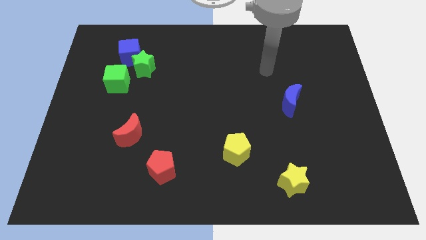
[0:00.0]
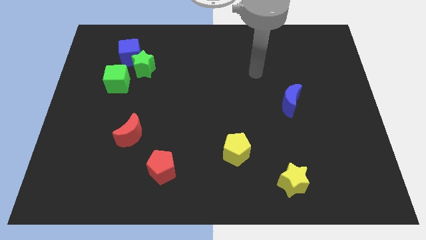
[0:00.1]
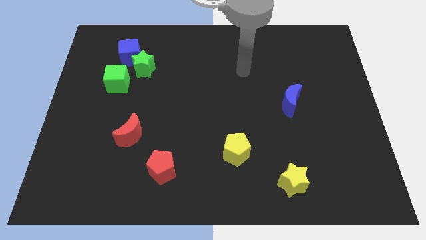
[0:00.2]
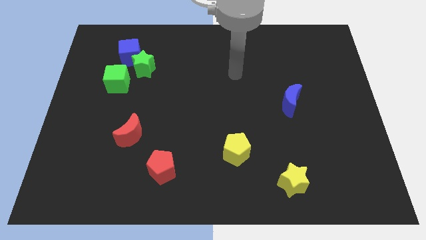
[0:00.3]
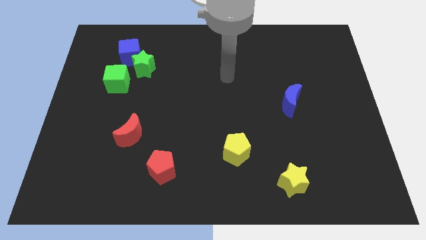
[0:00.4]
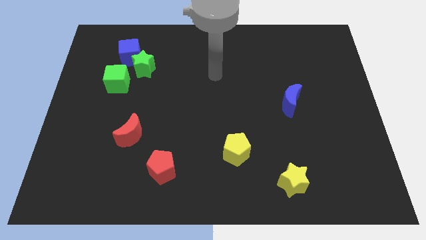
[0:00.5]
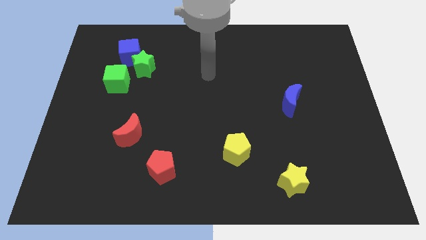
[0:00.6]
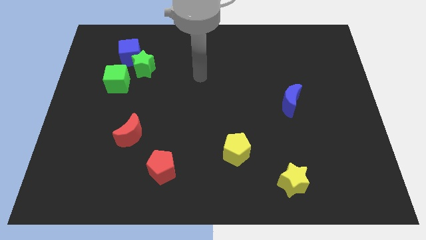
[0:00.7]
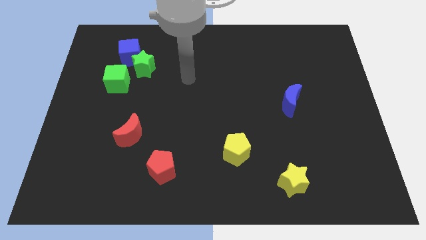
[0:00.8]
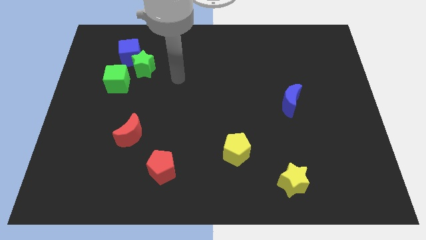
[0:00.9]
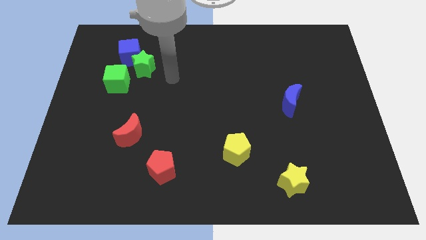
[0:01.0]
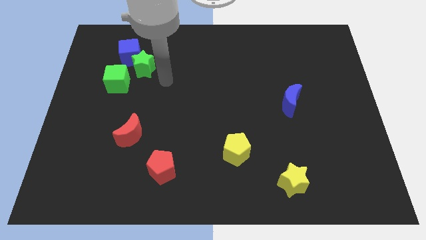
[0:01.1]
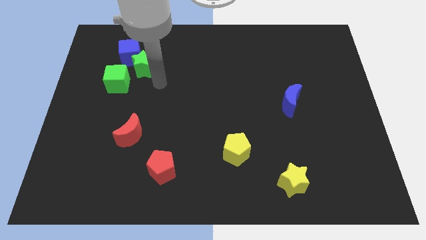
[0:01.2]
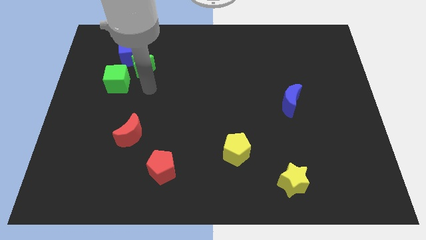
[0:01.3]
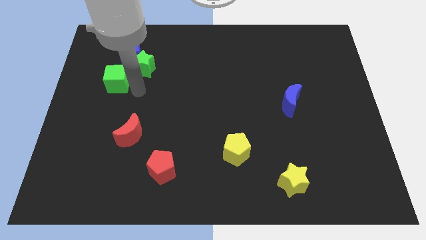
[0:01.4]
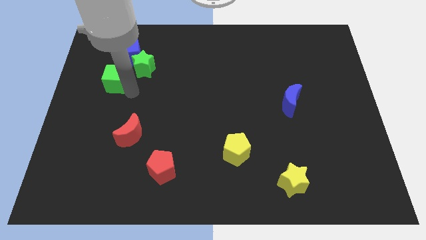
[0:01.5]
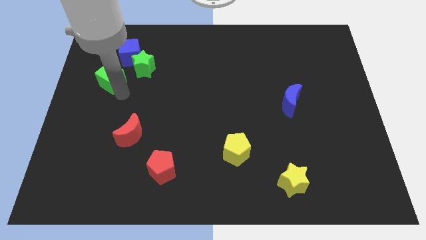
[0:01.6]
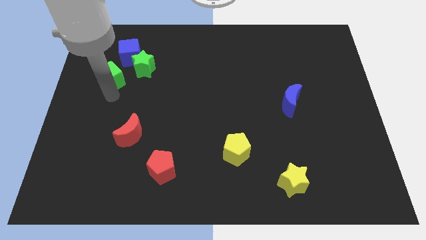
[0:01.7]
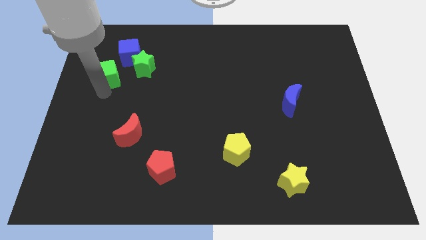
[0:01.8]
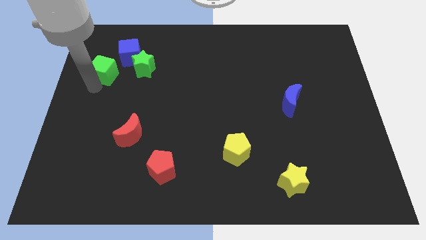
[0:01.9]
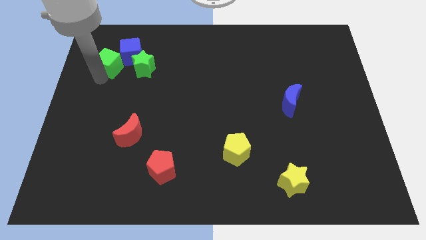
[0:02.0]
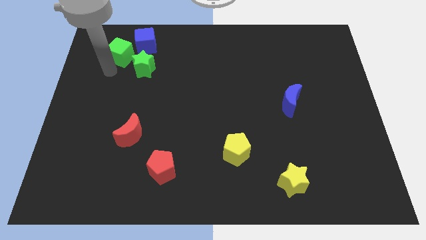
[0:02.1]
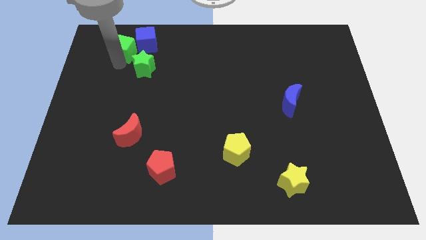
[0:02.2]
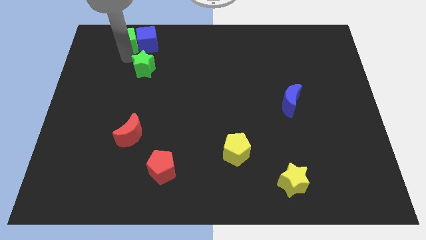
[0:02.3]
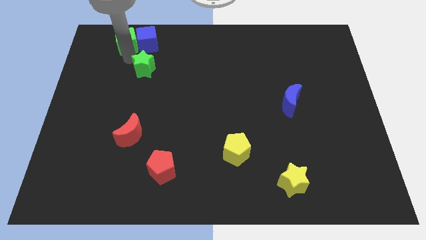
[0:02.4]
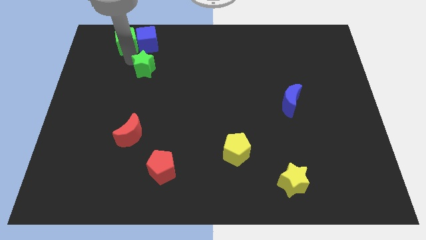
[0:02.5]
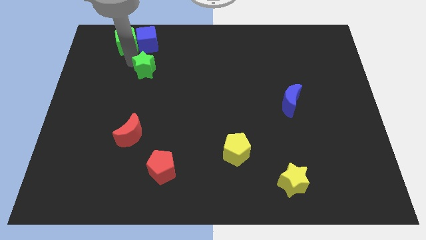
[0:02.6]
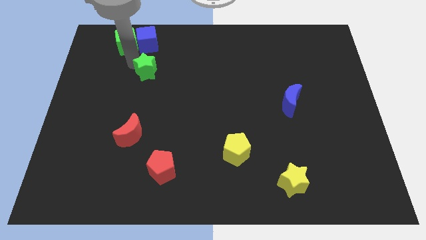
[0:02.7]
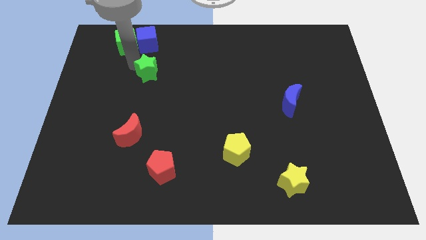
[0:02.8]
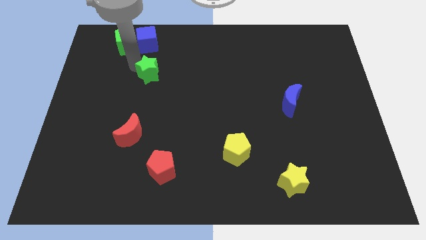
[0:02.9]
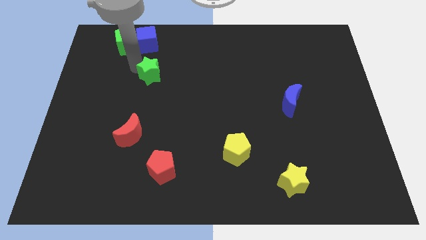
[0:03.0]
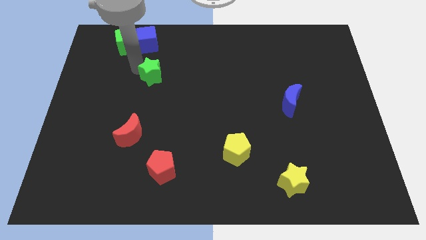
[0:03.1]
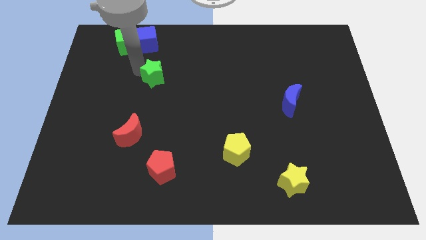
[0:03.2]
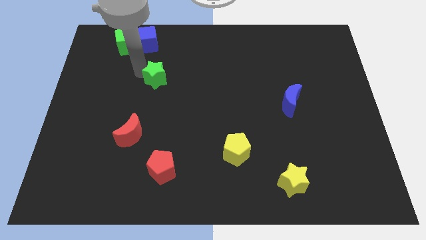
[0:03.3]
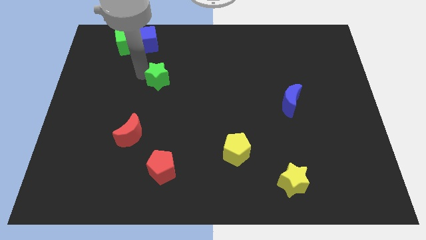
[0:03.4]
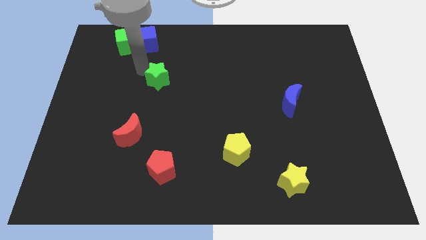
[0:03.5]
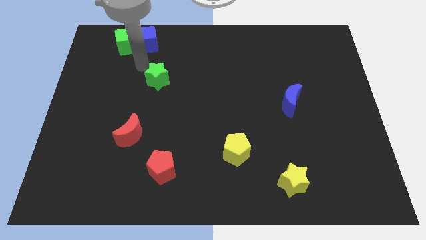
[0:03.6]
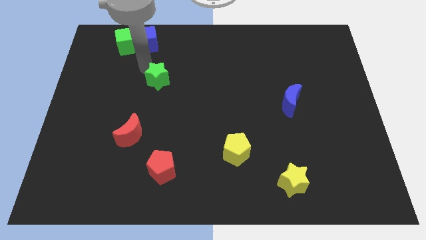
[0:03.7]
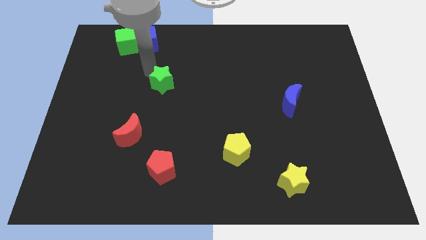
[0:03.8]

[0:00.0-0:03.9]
push the green star a little down and right

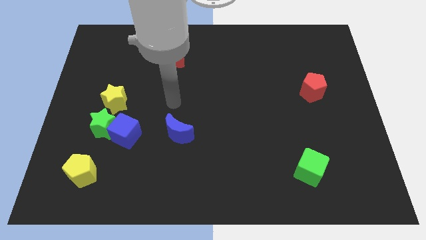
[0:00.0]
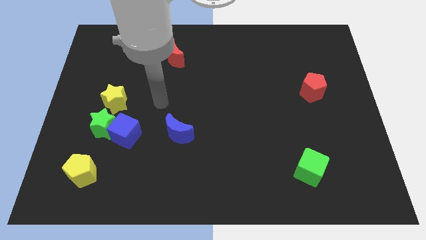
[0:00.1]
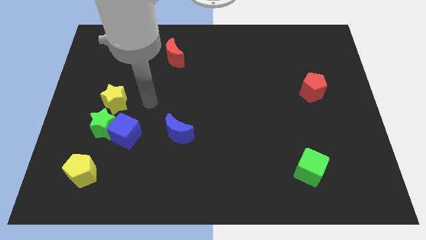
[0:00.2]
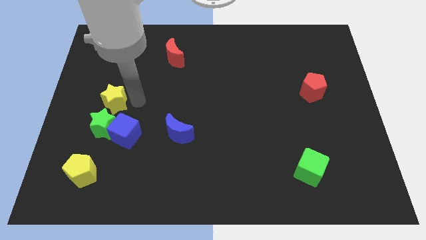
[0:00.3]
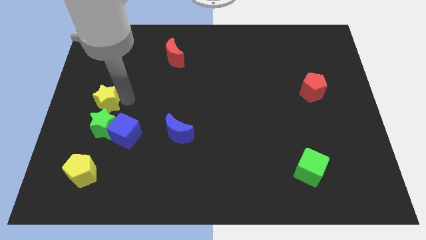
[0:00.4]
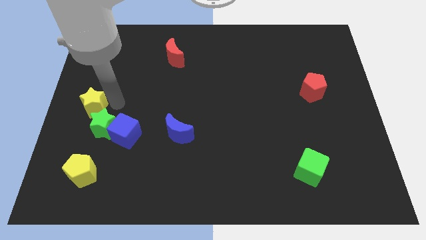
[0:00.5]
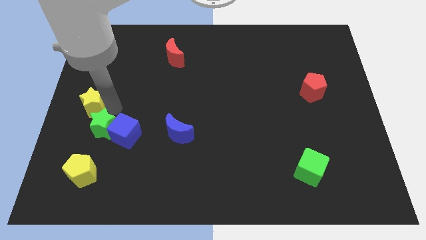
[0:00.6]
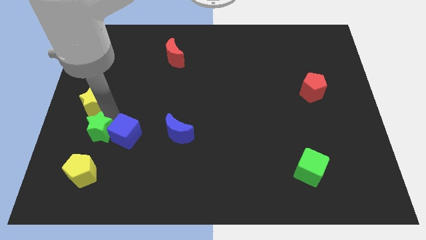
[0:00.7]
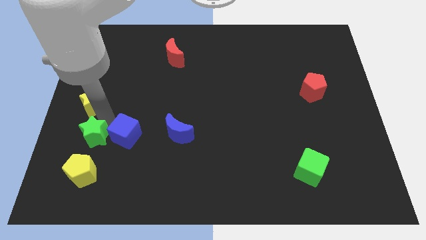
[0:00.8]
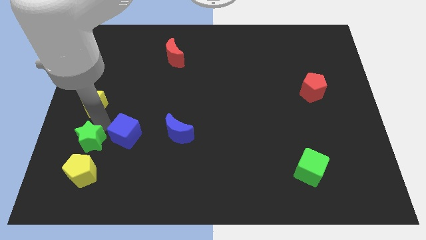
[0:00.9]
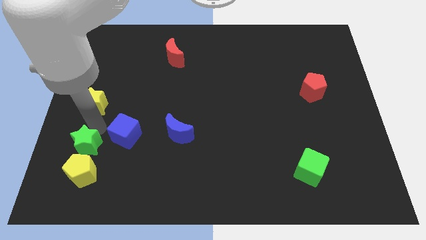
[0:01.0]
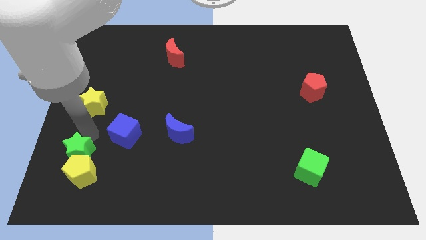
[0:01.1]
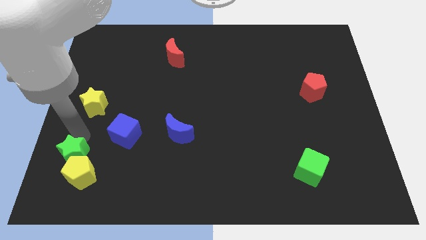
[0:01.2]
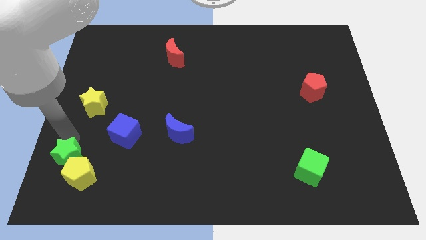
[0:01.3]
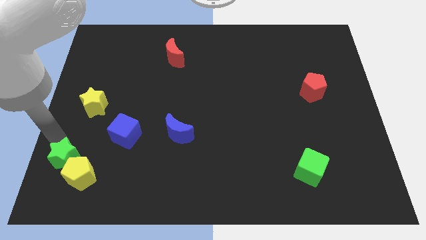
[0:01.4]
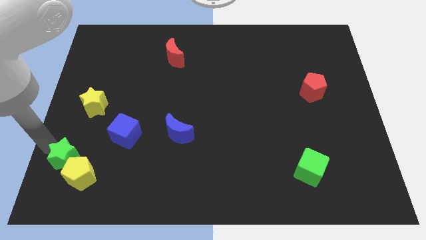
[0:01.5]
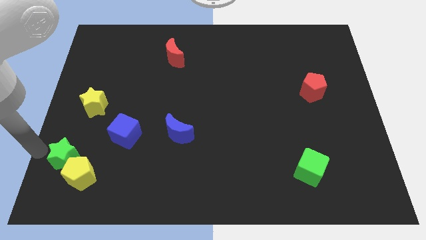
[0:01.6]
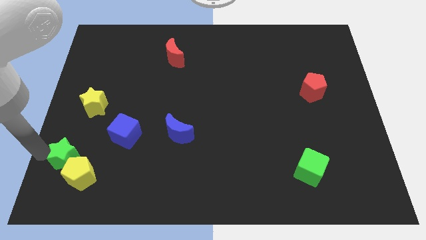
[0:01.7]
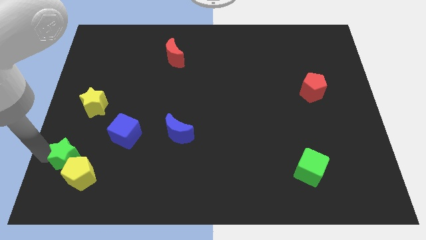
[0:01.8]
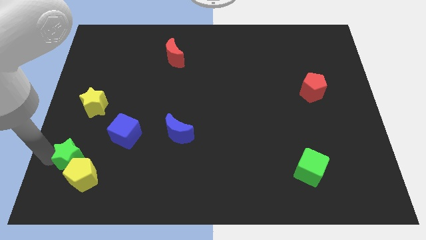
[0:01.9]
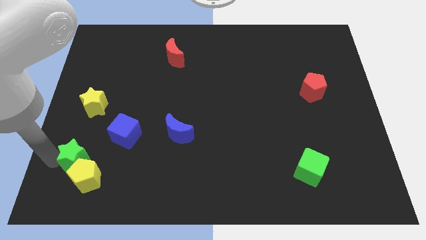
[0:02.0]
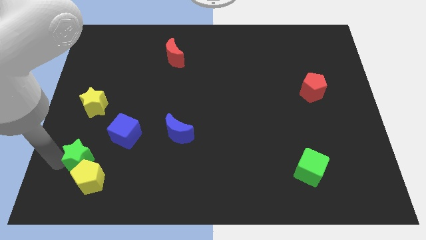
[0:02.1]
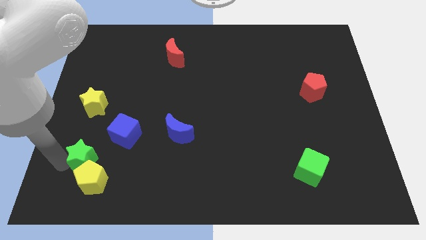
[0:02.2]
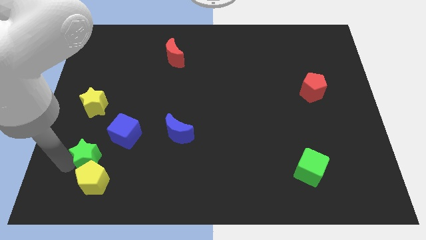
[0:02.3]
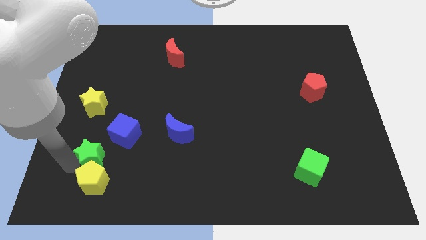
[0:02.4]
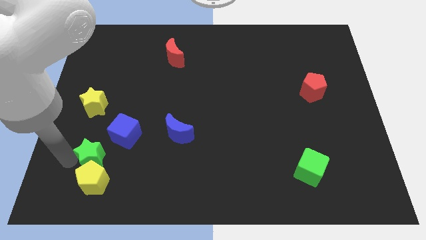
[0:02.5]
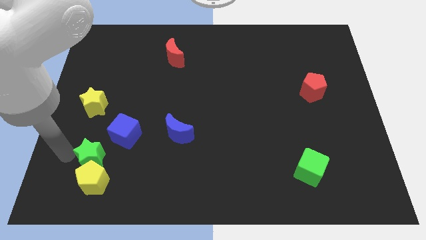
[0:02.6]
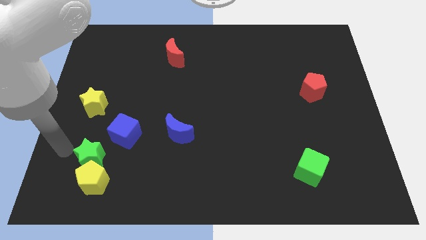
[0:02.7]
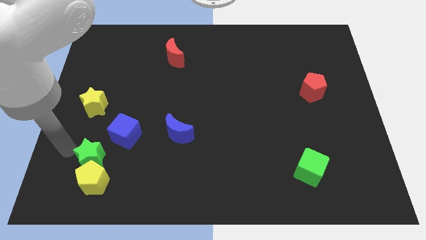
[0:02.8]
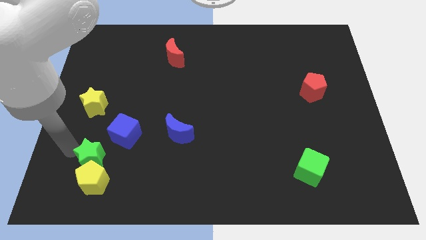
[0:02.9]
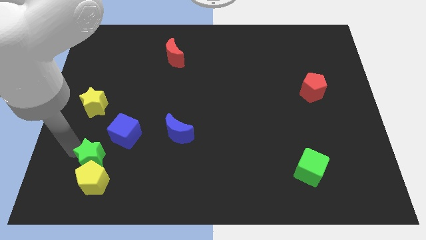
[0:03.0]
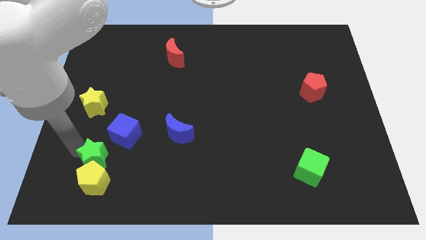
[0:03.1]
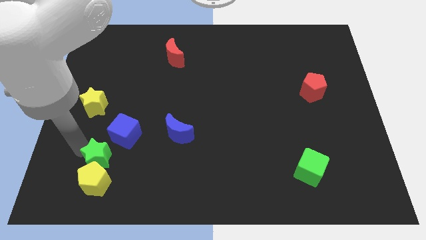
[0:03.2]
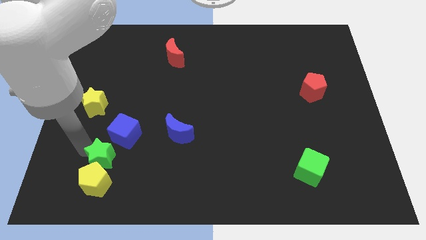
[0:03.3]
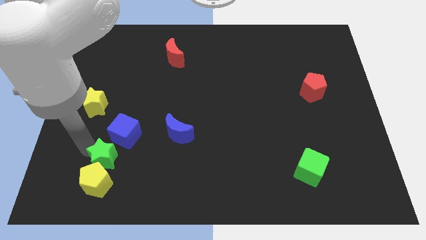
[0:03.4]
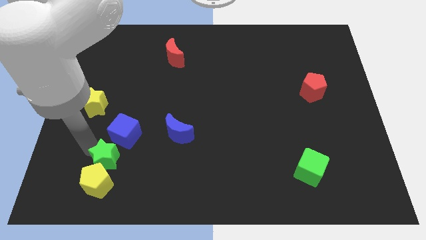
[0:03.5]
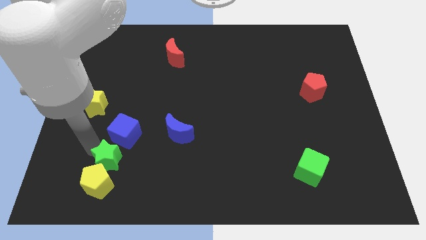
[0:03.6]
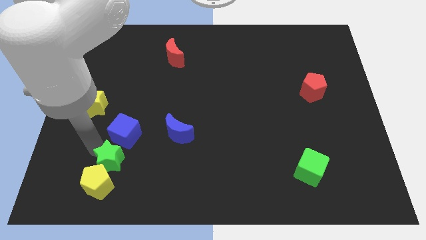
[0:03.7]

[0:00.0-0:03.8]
slightly slide the green star down and to the right diagonally

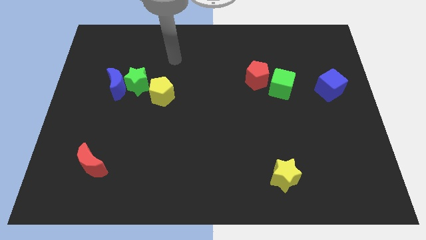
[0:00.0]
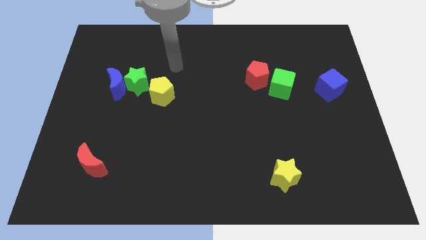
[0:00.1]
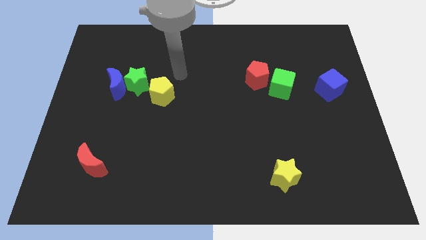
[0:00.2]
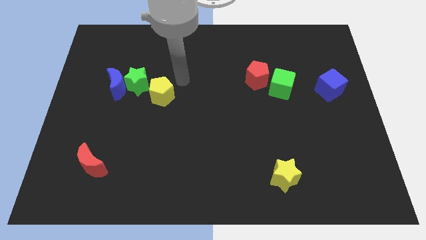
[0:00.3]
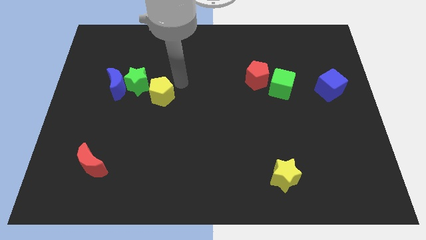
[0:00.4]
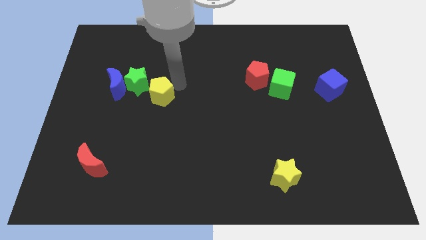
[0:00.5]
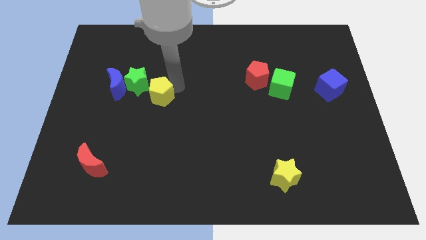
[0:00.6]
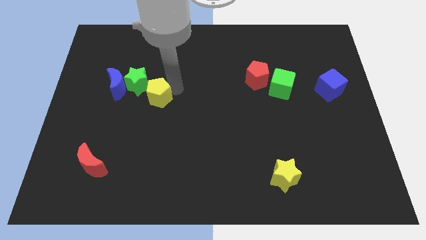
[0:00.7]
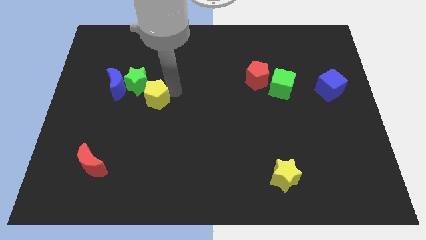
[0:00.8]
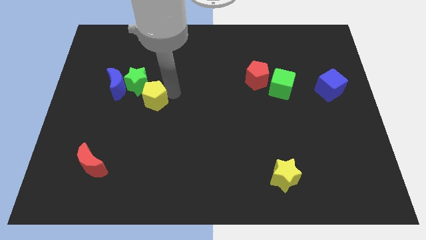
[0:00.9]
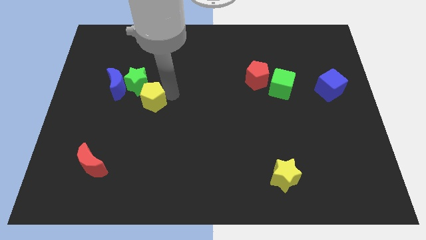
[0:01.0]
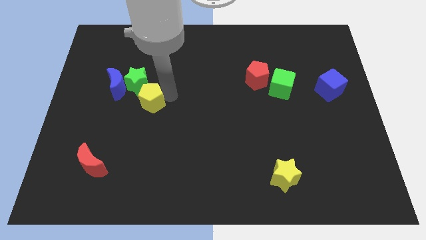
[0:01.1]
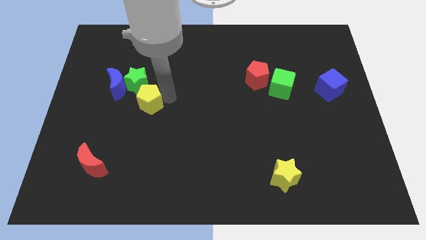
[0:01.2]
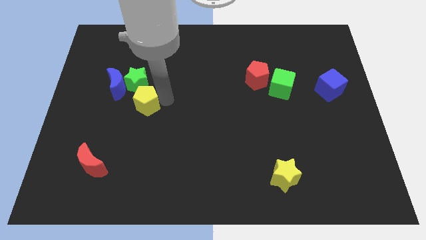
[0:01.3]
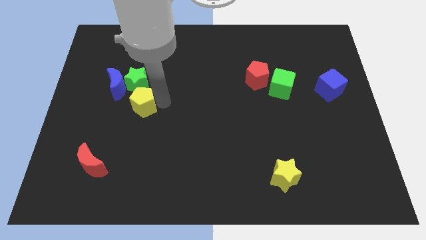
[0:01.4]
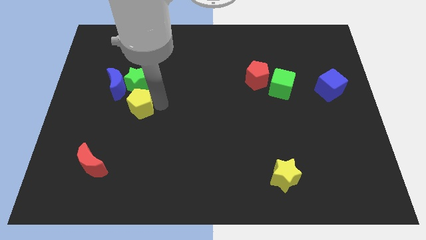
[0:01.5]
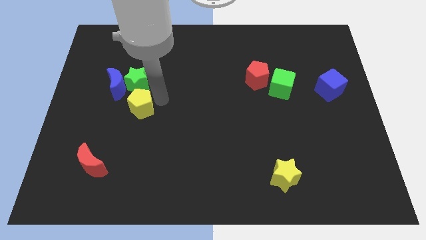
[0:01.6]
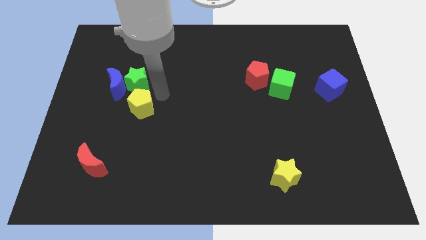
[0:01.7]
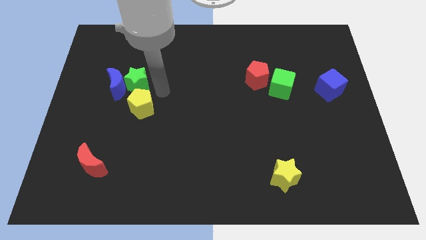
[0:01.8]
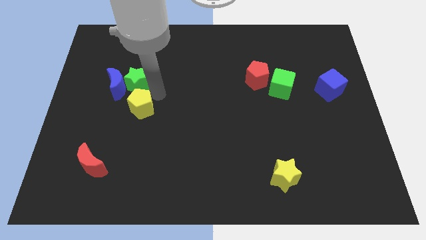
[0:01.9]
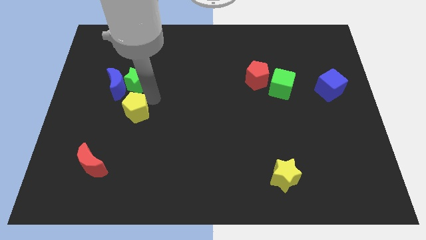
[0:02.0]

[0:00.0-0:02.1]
push the yellow pentagon diagonally down and to the left a little
